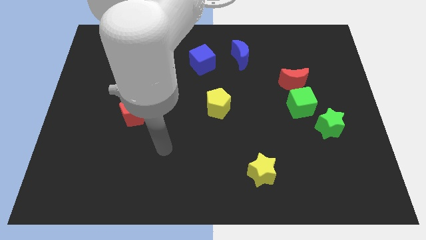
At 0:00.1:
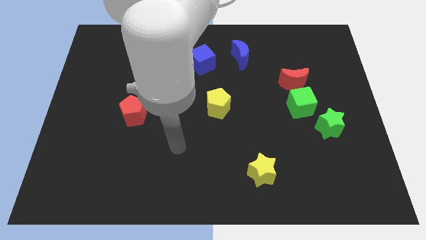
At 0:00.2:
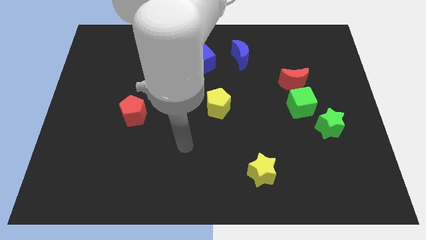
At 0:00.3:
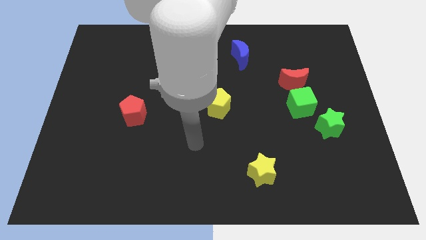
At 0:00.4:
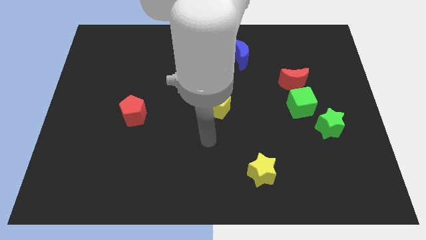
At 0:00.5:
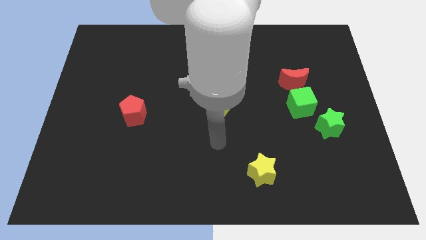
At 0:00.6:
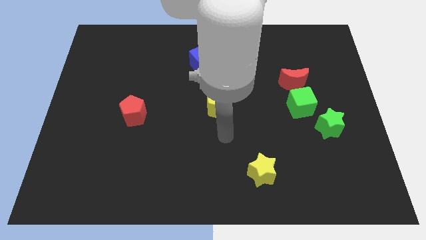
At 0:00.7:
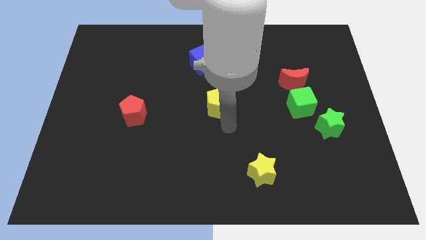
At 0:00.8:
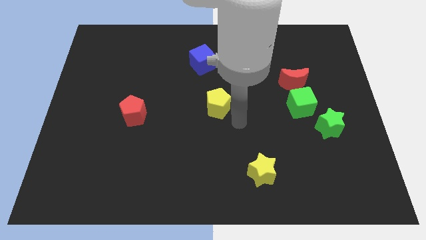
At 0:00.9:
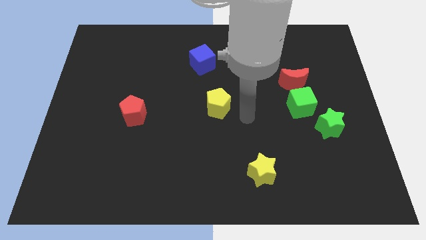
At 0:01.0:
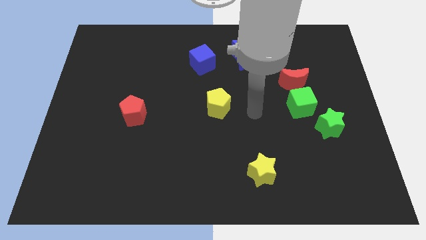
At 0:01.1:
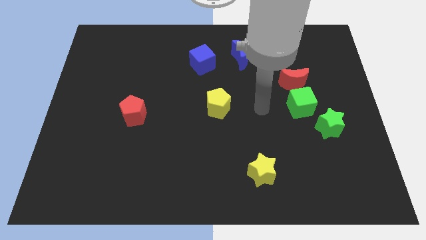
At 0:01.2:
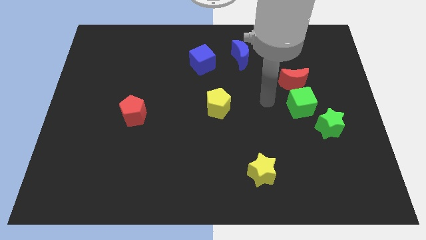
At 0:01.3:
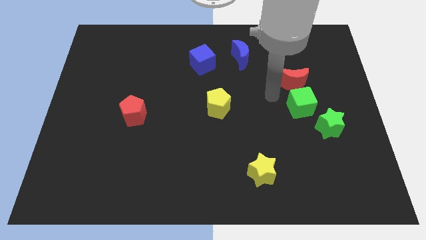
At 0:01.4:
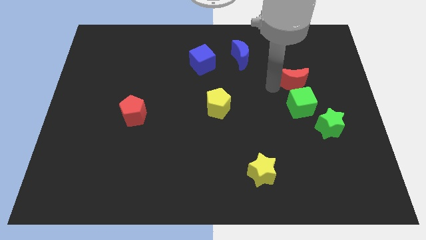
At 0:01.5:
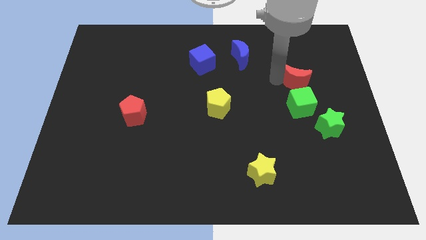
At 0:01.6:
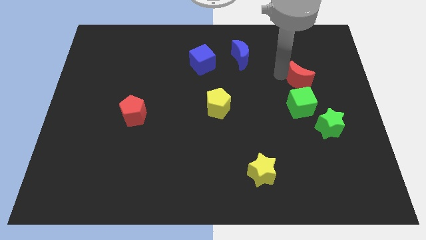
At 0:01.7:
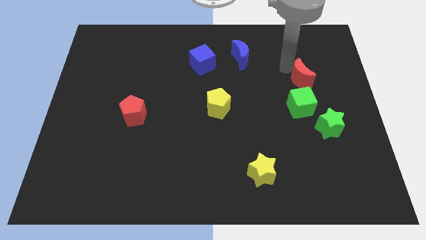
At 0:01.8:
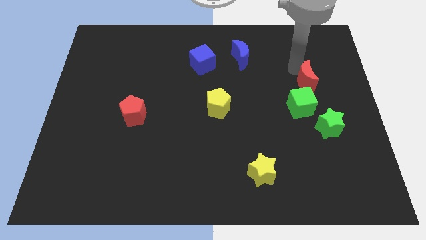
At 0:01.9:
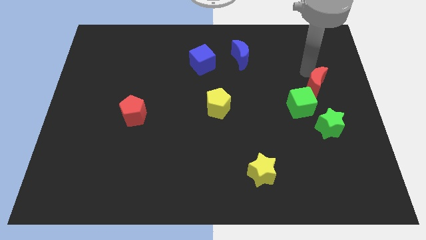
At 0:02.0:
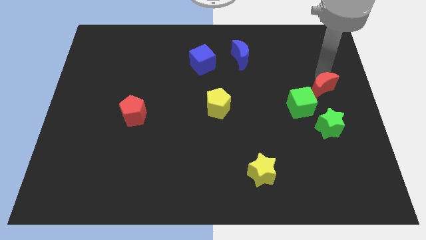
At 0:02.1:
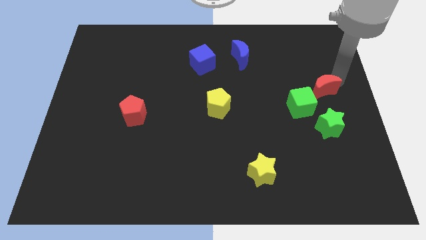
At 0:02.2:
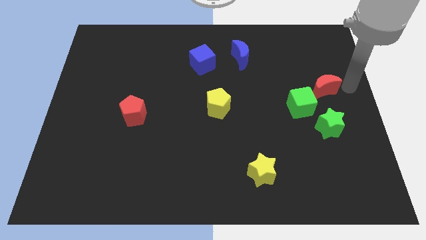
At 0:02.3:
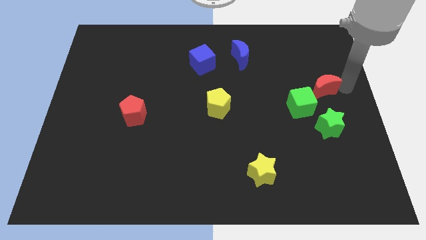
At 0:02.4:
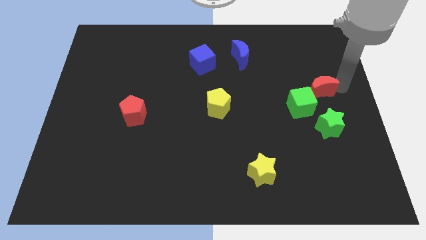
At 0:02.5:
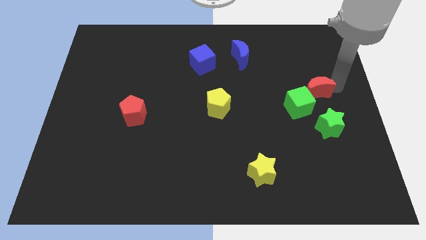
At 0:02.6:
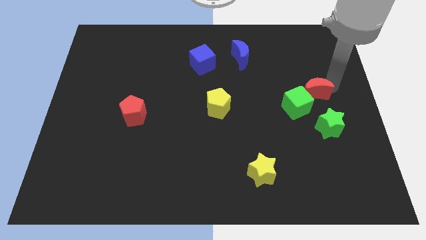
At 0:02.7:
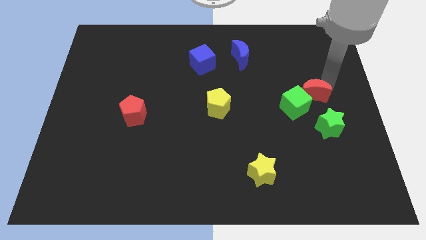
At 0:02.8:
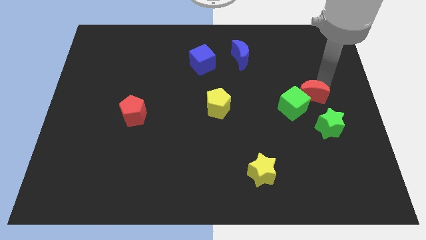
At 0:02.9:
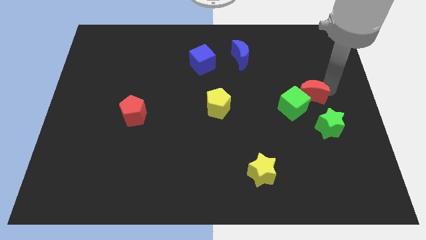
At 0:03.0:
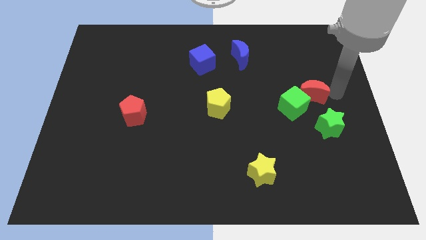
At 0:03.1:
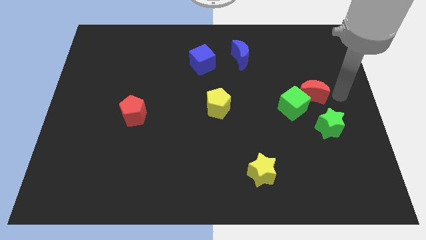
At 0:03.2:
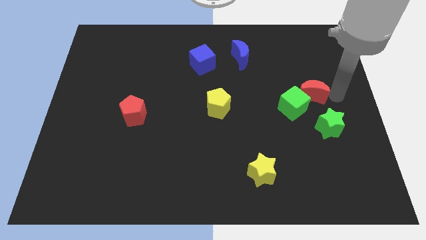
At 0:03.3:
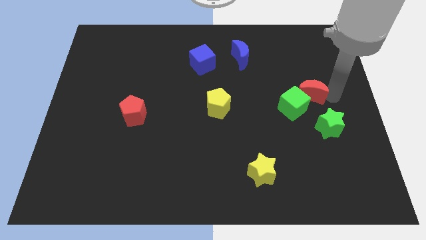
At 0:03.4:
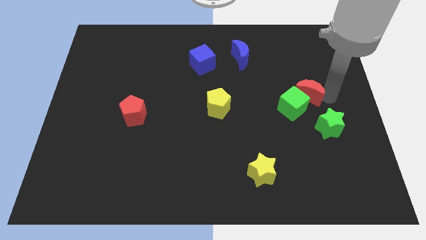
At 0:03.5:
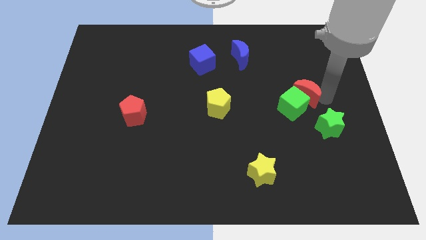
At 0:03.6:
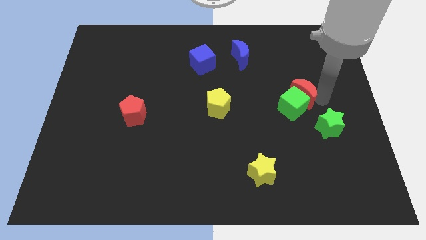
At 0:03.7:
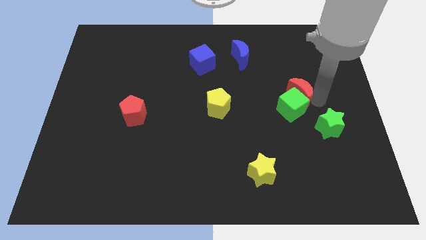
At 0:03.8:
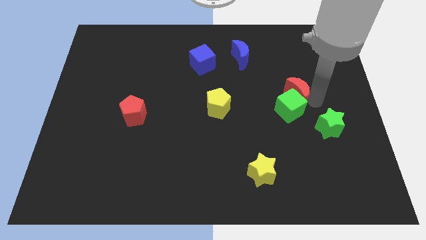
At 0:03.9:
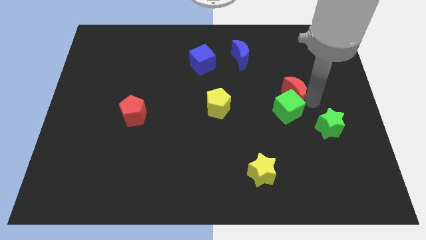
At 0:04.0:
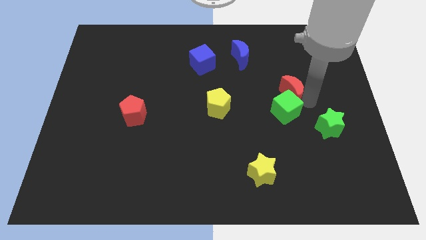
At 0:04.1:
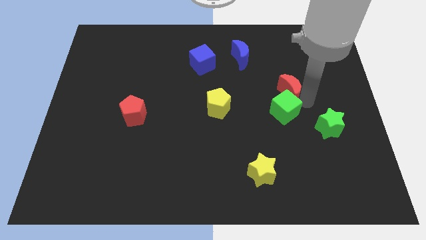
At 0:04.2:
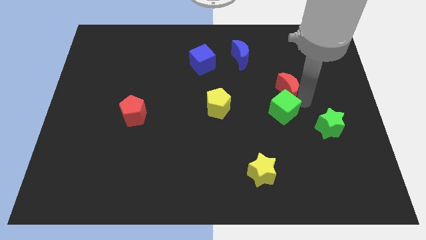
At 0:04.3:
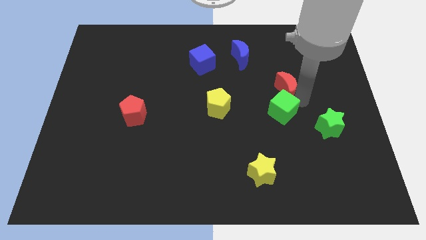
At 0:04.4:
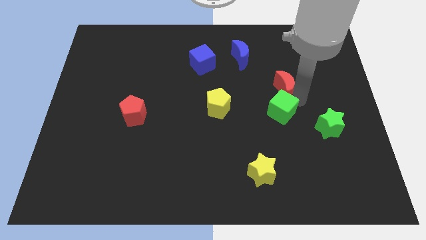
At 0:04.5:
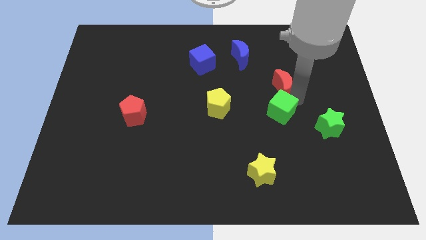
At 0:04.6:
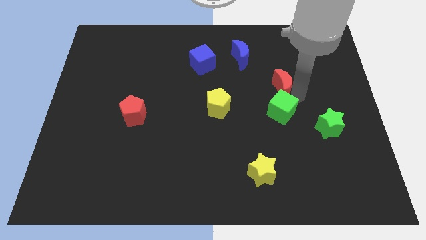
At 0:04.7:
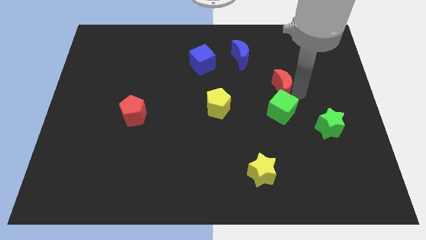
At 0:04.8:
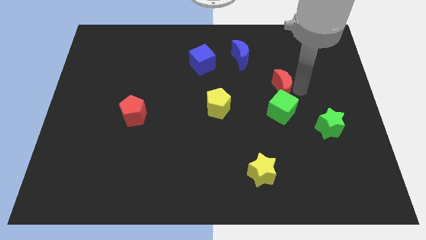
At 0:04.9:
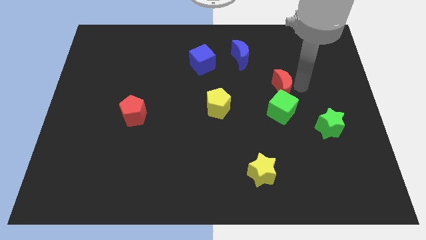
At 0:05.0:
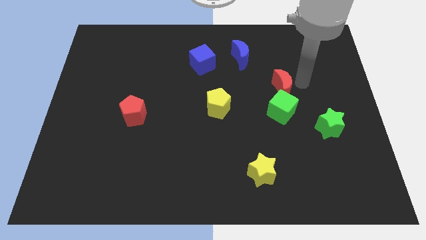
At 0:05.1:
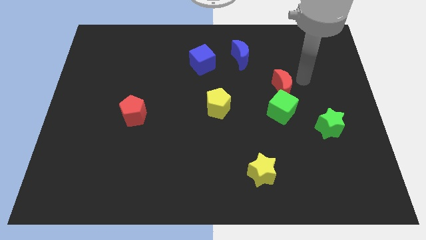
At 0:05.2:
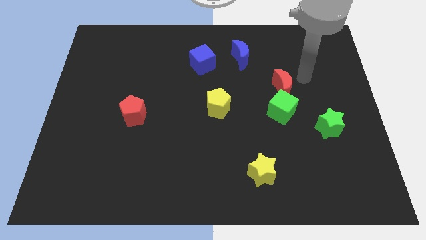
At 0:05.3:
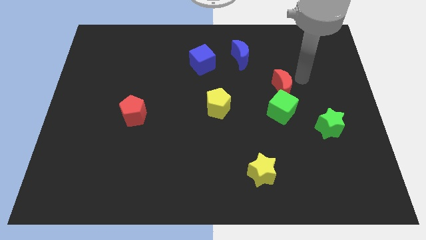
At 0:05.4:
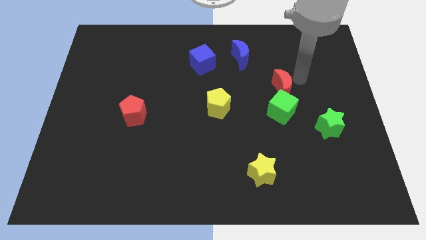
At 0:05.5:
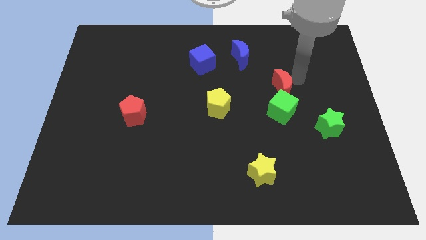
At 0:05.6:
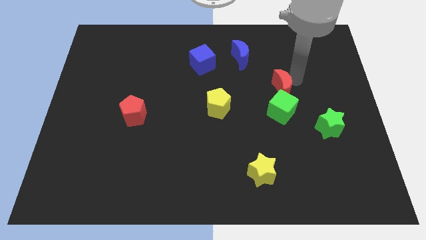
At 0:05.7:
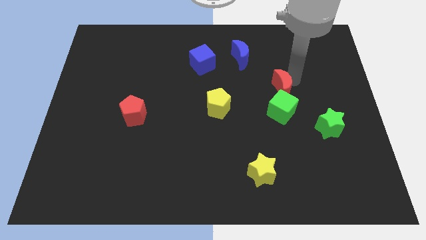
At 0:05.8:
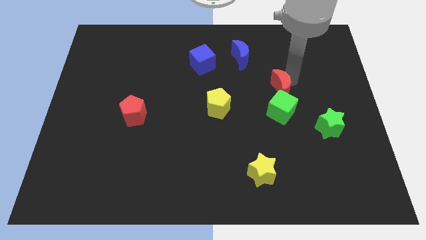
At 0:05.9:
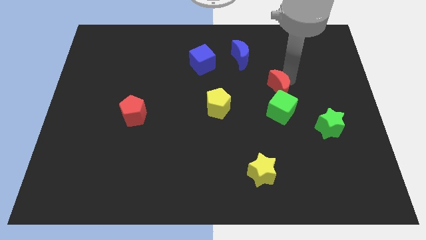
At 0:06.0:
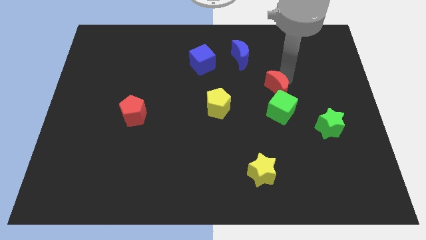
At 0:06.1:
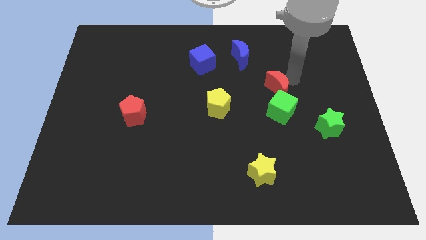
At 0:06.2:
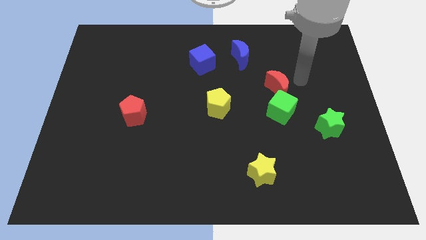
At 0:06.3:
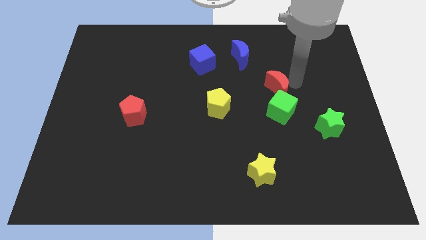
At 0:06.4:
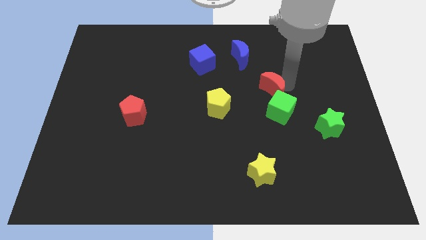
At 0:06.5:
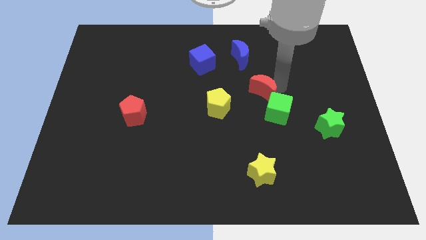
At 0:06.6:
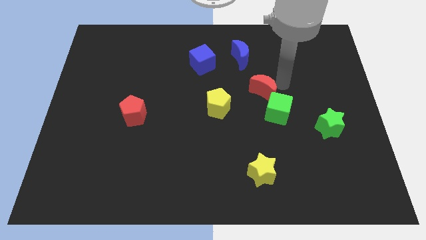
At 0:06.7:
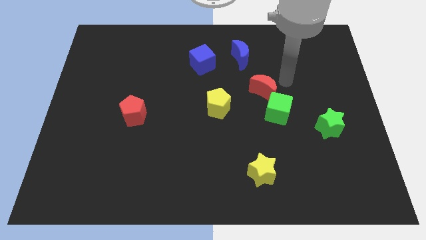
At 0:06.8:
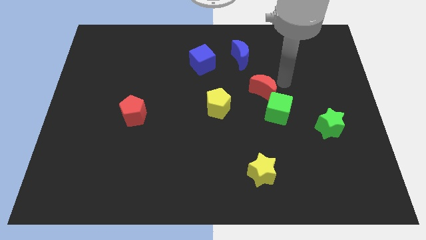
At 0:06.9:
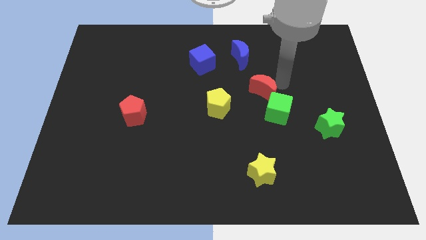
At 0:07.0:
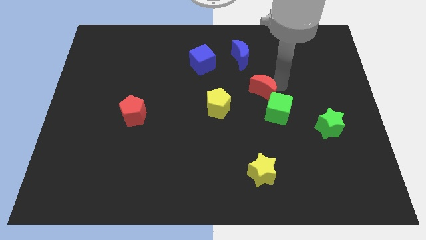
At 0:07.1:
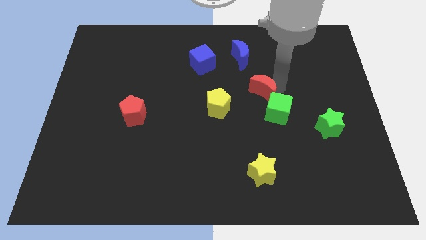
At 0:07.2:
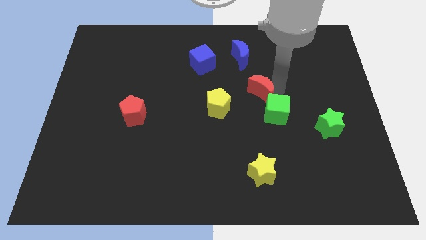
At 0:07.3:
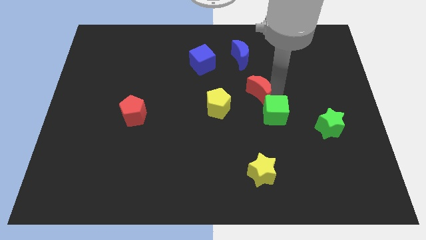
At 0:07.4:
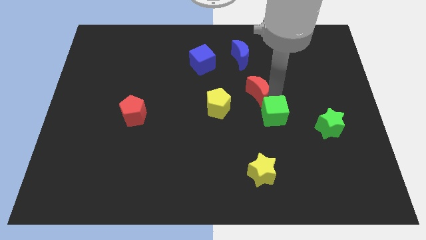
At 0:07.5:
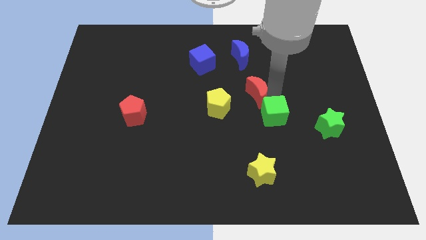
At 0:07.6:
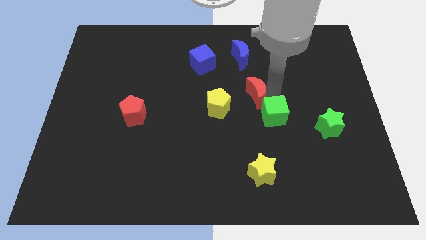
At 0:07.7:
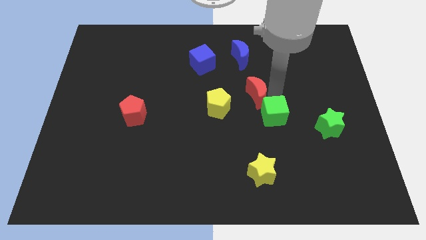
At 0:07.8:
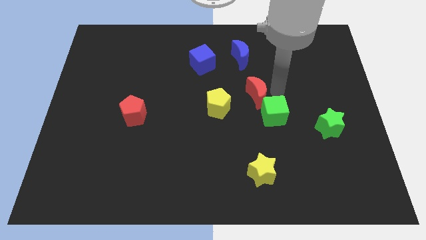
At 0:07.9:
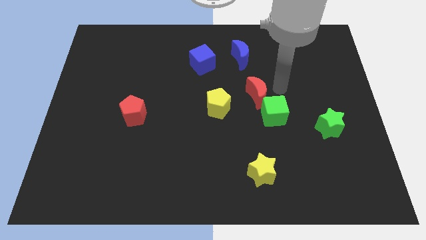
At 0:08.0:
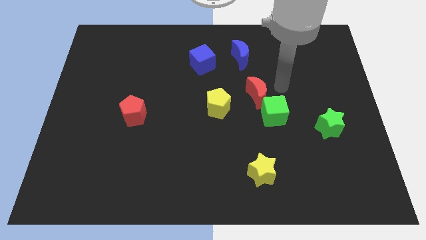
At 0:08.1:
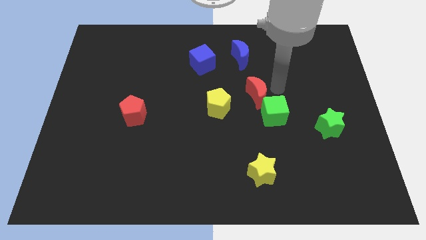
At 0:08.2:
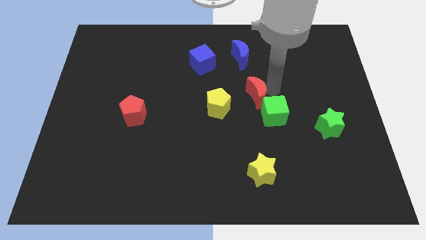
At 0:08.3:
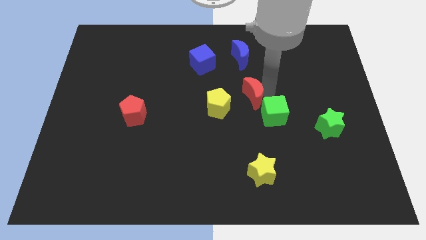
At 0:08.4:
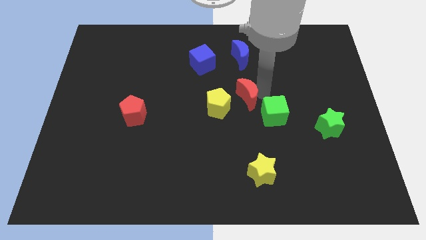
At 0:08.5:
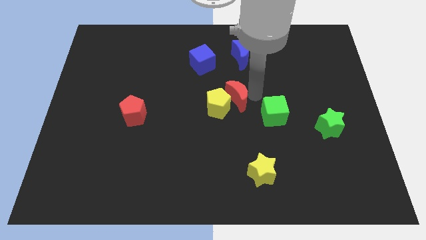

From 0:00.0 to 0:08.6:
slide the red moon close to the yellow pentagon
